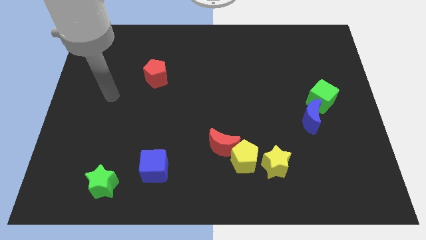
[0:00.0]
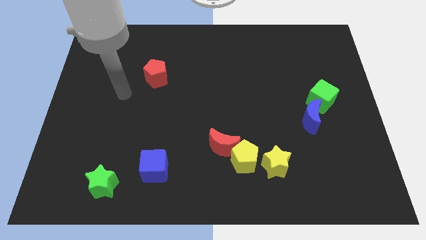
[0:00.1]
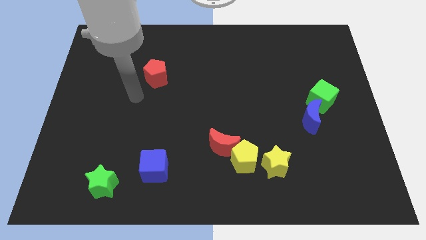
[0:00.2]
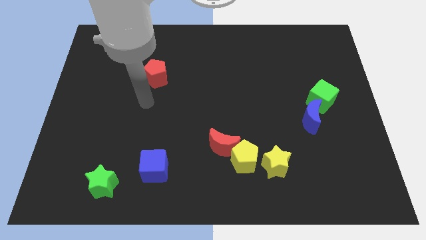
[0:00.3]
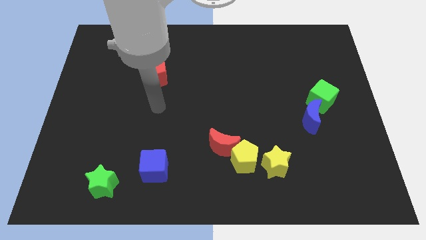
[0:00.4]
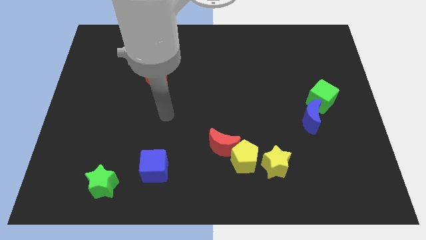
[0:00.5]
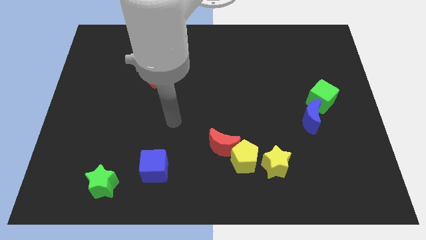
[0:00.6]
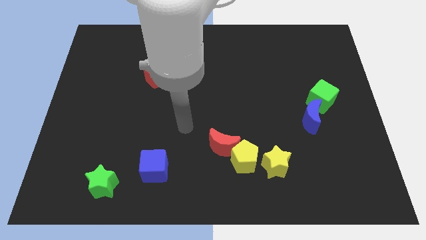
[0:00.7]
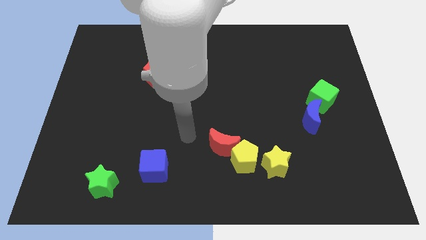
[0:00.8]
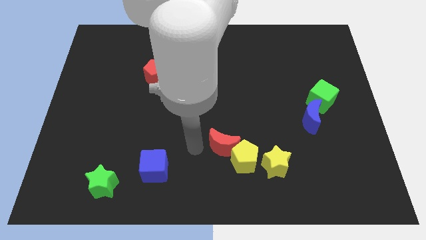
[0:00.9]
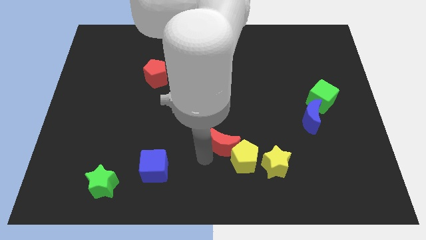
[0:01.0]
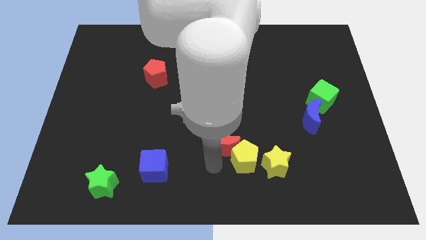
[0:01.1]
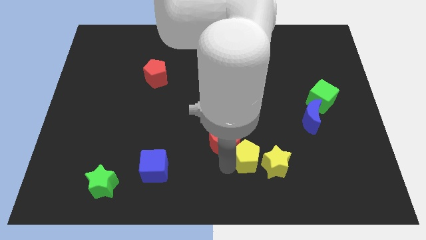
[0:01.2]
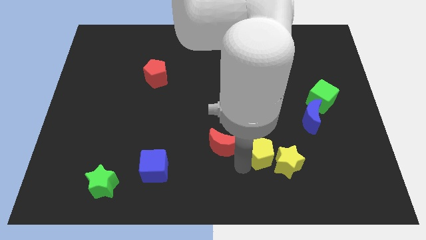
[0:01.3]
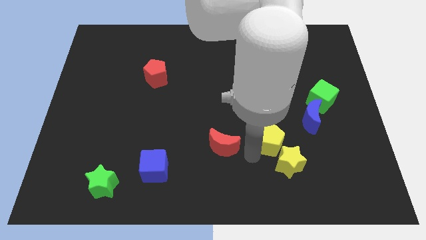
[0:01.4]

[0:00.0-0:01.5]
move the red moon away from the yellow pentagon

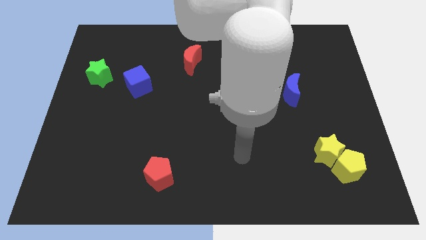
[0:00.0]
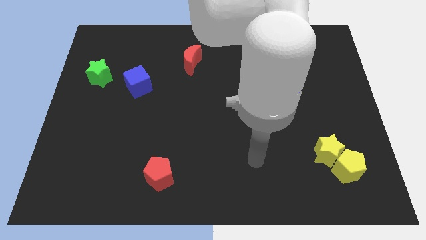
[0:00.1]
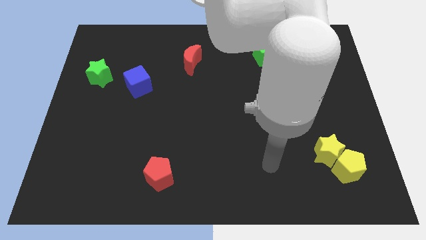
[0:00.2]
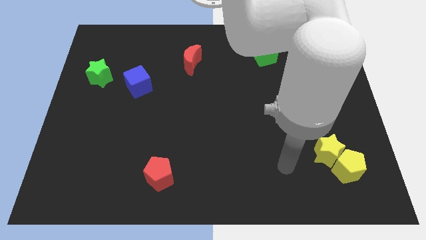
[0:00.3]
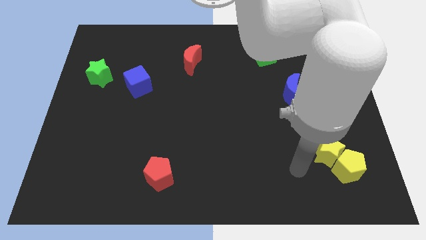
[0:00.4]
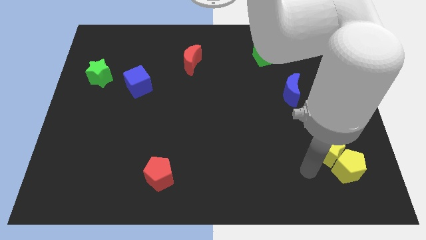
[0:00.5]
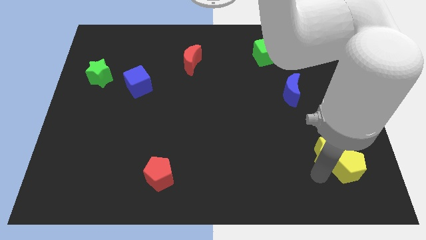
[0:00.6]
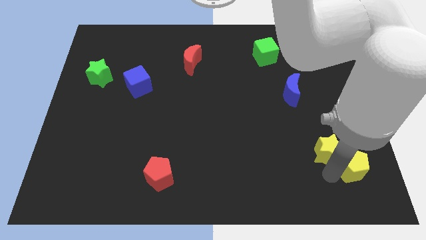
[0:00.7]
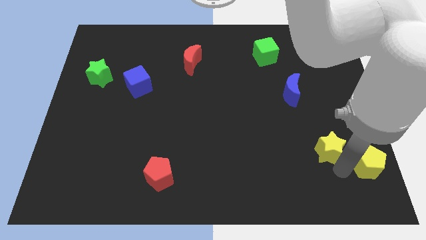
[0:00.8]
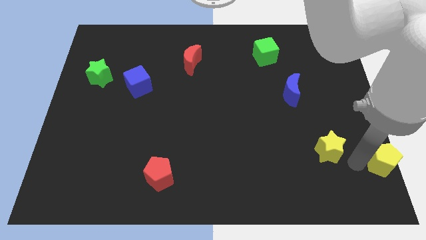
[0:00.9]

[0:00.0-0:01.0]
separate the yellow star from the yellow pentagon

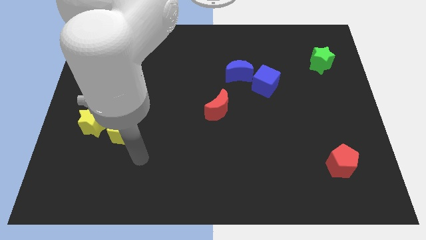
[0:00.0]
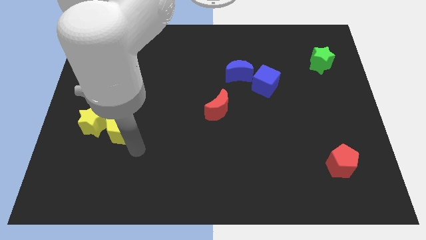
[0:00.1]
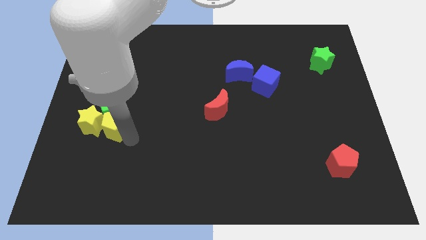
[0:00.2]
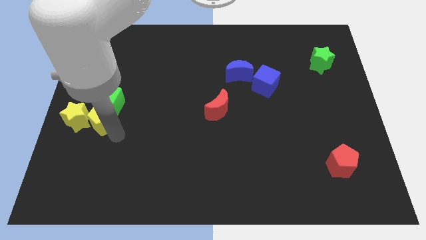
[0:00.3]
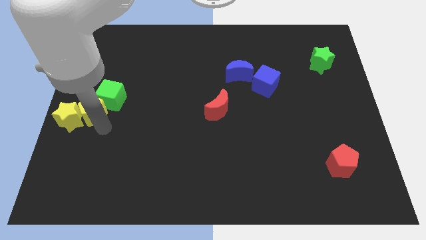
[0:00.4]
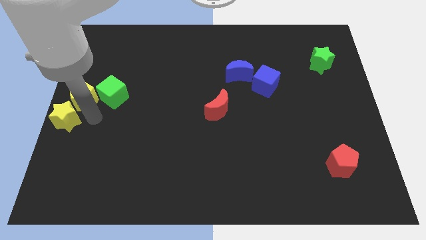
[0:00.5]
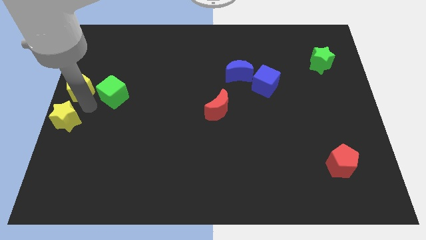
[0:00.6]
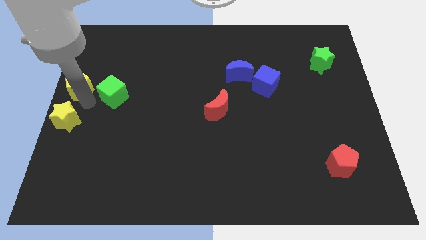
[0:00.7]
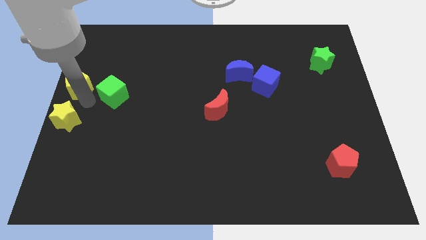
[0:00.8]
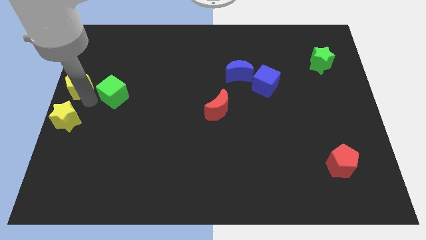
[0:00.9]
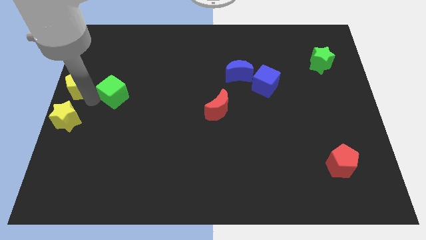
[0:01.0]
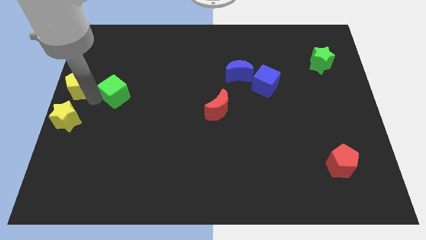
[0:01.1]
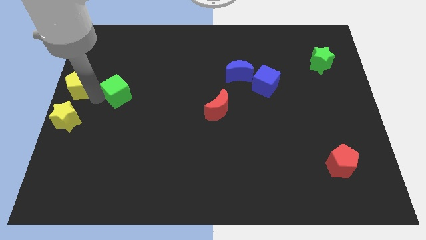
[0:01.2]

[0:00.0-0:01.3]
move the green cube away from the yellow star and yellow pentagon

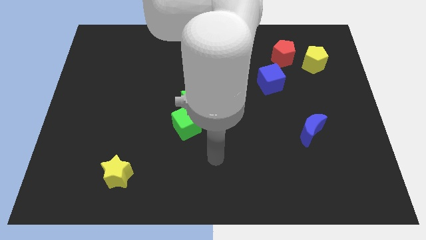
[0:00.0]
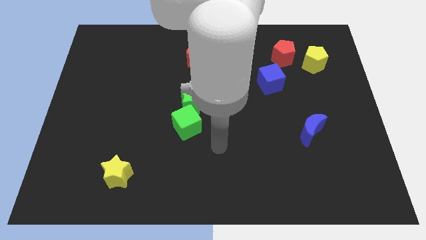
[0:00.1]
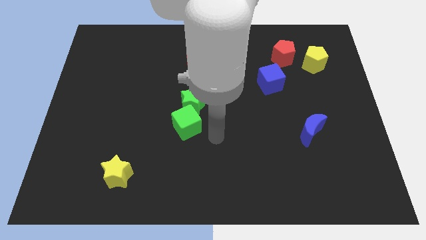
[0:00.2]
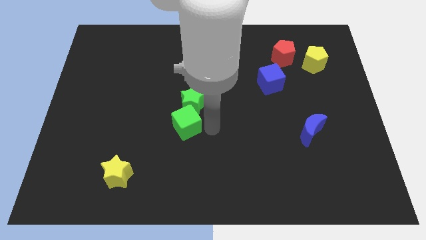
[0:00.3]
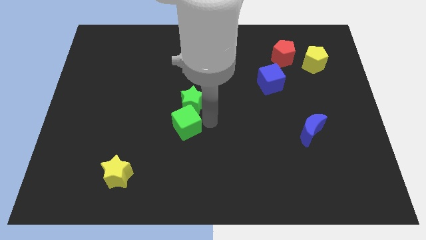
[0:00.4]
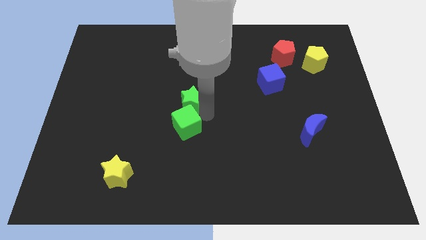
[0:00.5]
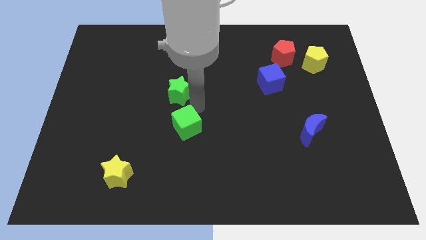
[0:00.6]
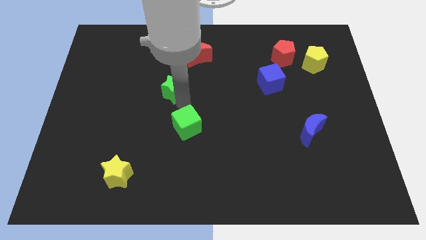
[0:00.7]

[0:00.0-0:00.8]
move the green cube away from the green star

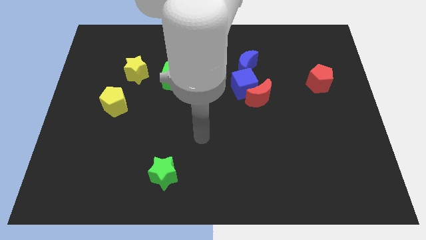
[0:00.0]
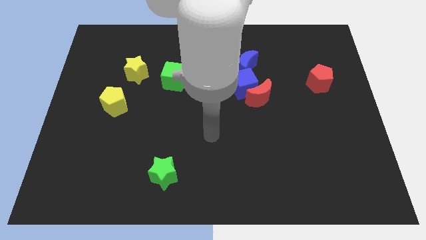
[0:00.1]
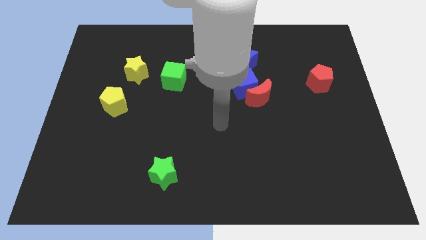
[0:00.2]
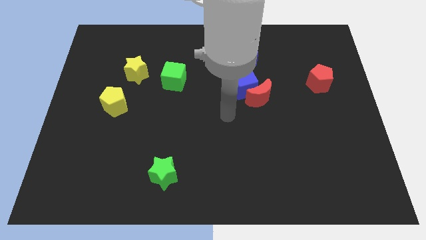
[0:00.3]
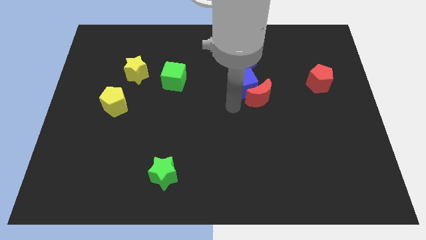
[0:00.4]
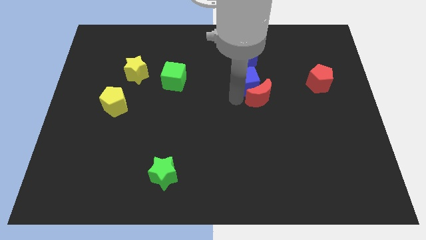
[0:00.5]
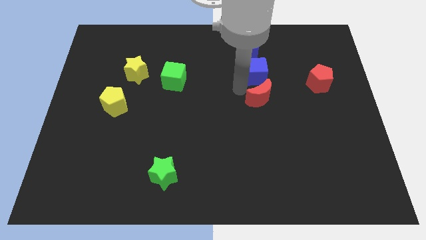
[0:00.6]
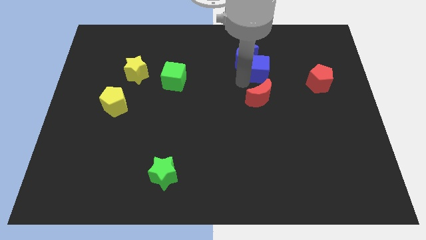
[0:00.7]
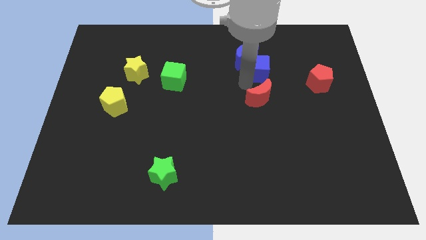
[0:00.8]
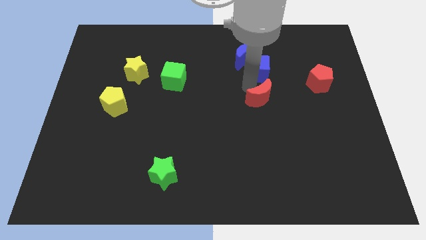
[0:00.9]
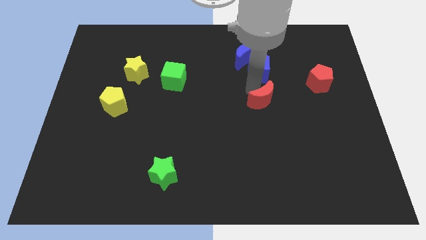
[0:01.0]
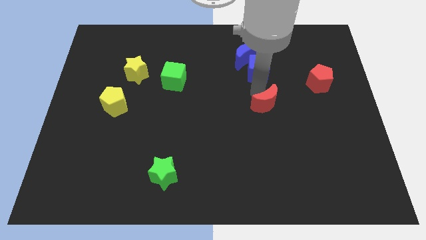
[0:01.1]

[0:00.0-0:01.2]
separate the red moon from the blue cube

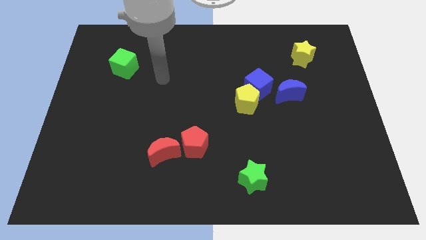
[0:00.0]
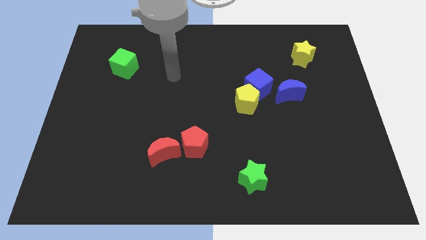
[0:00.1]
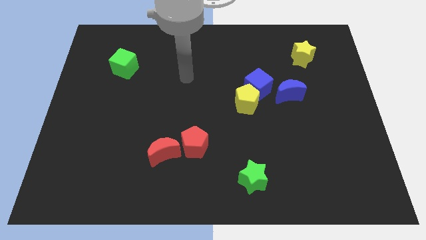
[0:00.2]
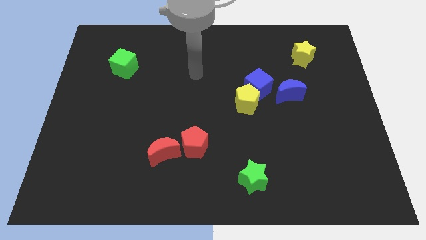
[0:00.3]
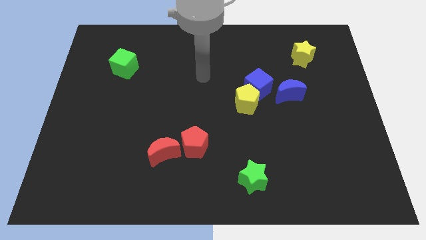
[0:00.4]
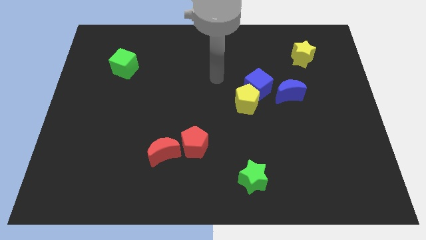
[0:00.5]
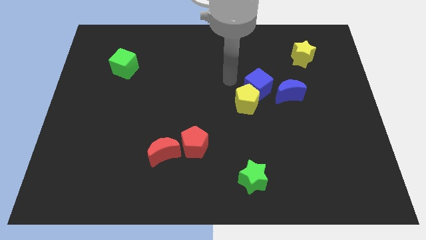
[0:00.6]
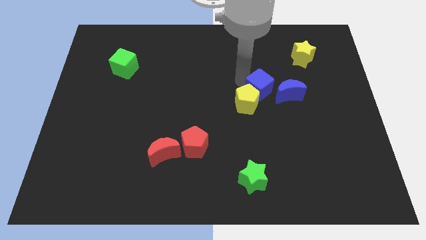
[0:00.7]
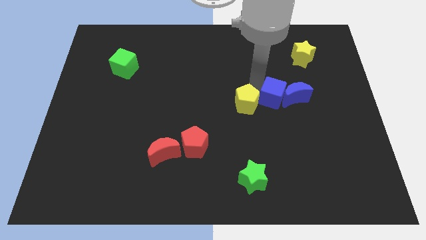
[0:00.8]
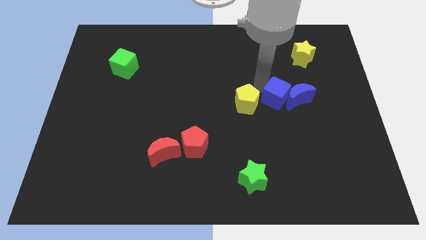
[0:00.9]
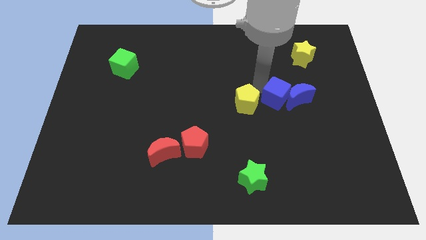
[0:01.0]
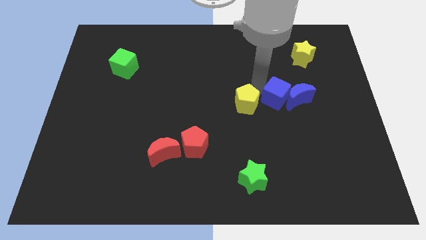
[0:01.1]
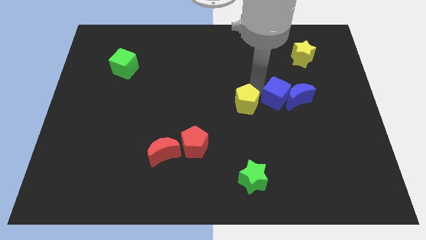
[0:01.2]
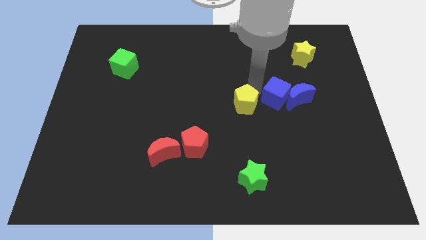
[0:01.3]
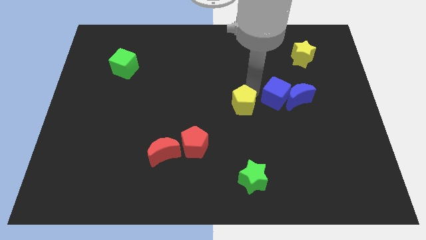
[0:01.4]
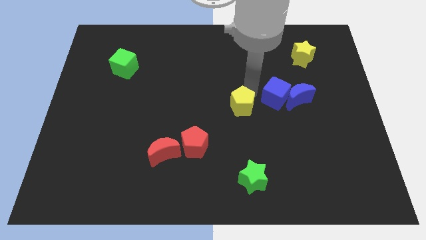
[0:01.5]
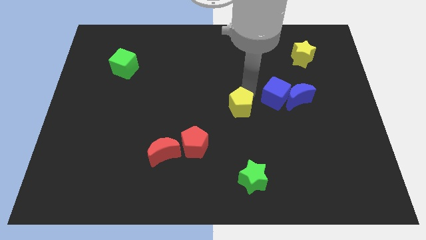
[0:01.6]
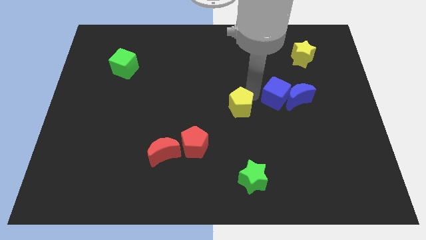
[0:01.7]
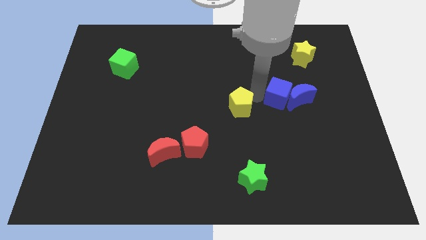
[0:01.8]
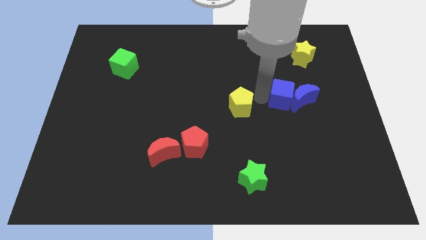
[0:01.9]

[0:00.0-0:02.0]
move the yellow pentagon away from the blue cube

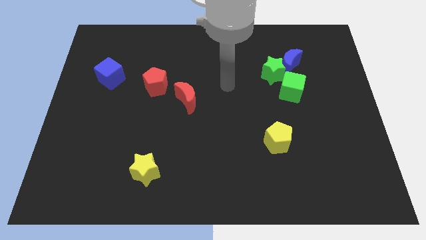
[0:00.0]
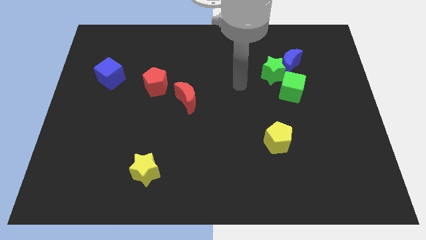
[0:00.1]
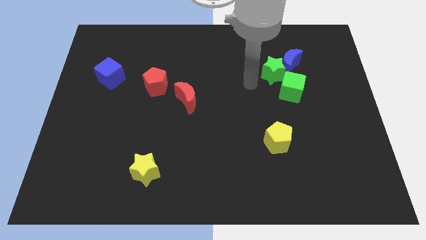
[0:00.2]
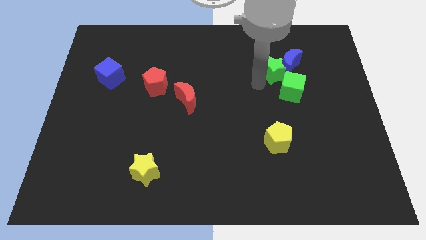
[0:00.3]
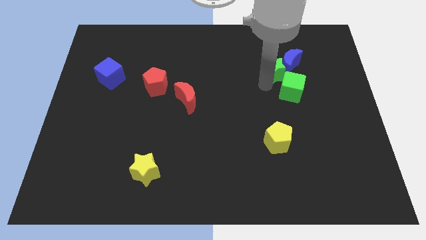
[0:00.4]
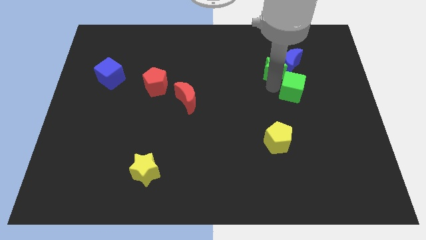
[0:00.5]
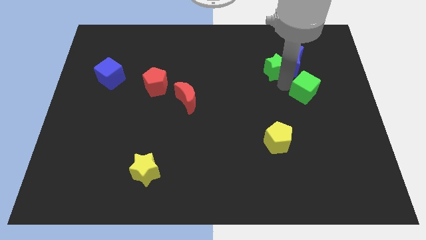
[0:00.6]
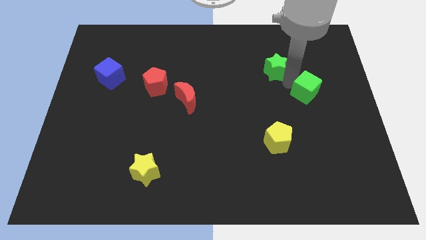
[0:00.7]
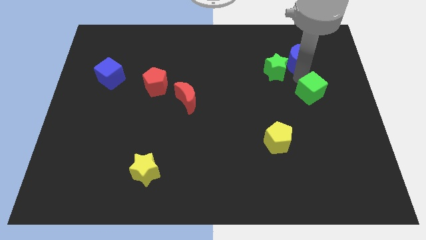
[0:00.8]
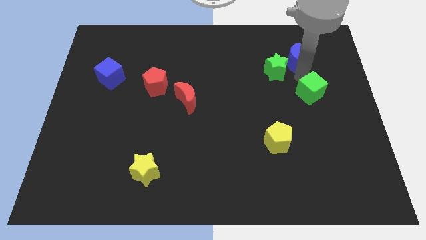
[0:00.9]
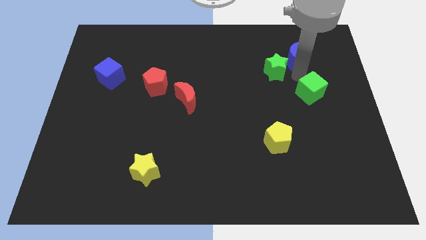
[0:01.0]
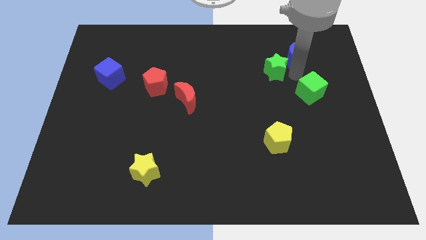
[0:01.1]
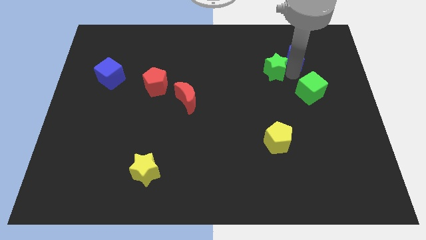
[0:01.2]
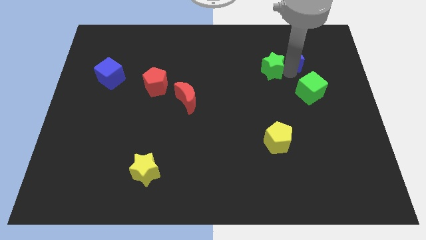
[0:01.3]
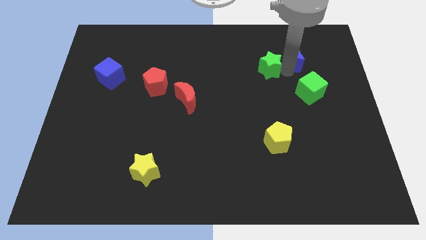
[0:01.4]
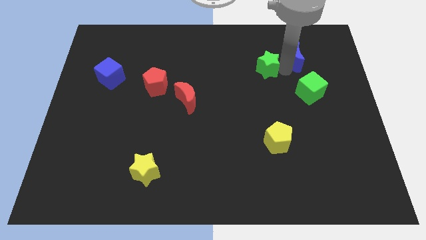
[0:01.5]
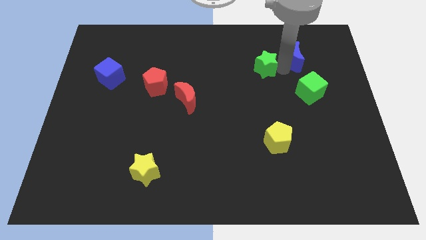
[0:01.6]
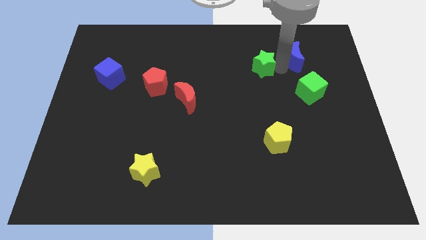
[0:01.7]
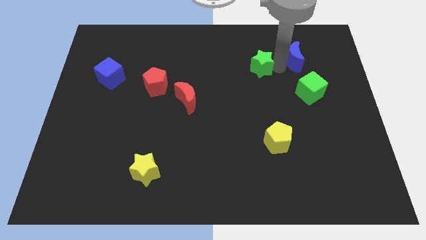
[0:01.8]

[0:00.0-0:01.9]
move the green star away from the blue moon and green cube
